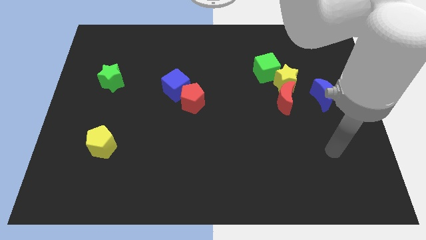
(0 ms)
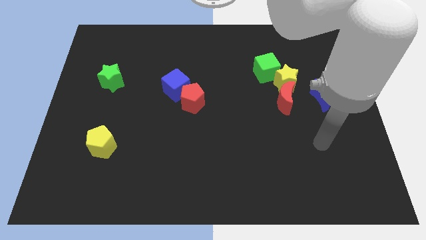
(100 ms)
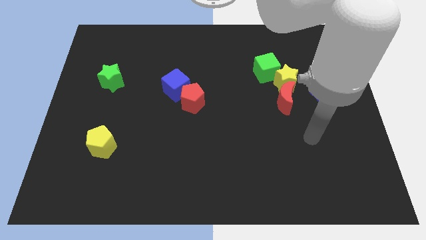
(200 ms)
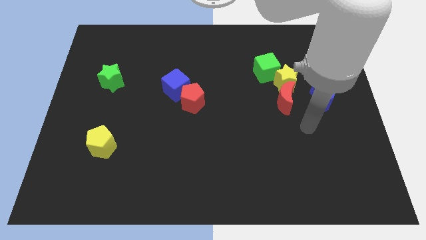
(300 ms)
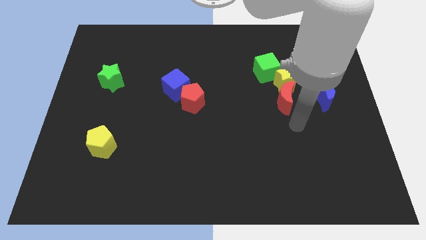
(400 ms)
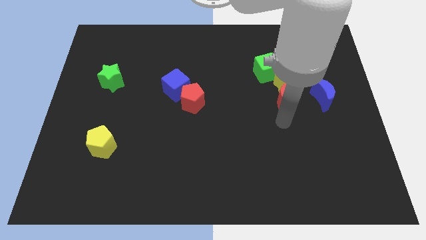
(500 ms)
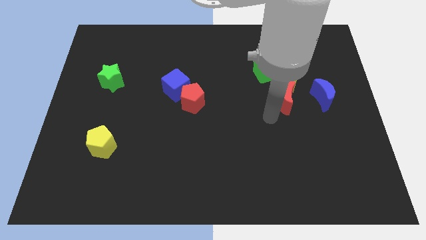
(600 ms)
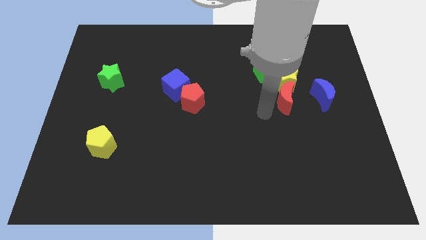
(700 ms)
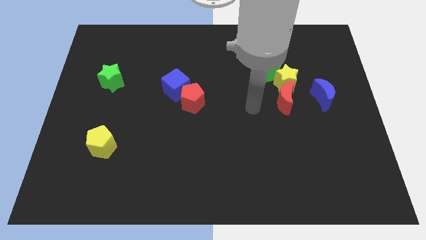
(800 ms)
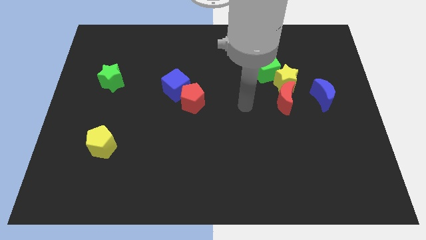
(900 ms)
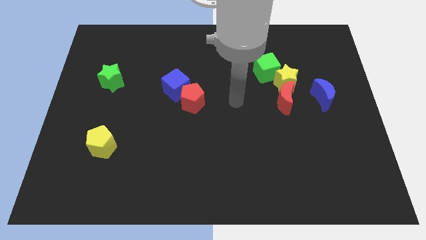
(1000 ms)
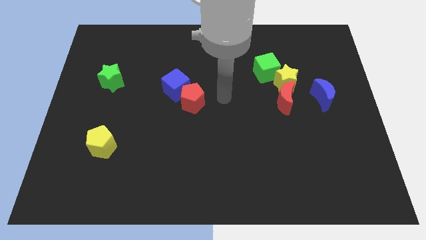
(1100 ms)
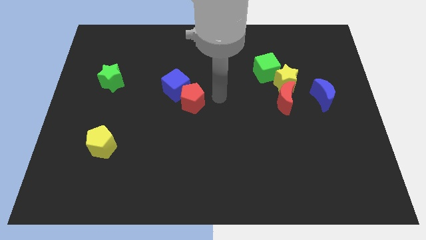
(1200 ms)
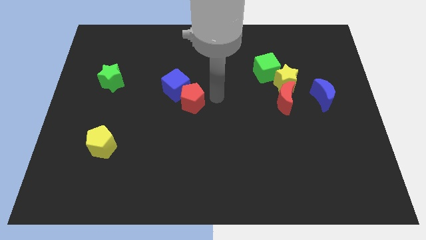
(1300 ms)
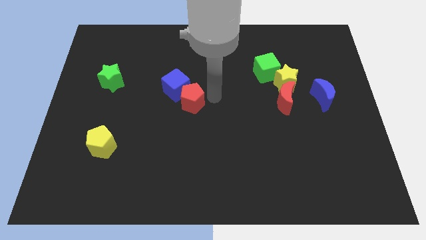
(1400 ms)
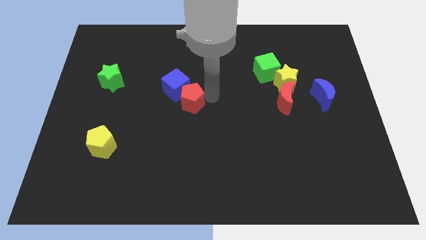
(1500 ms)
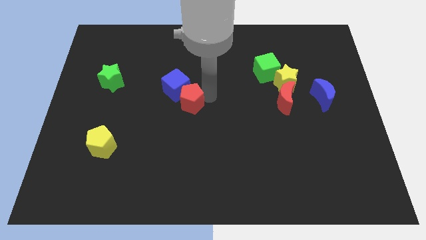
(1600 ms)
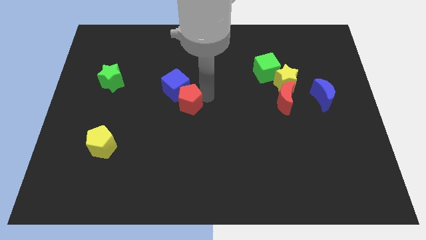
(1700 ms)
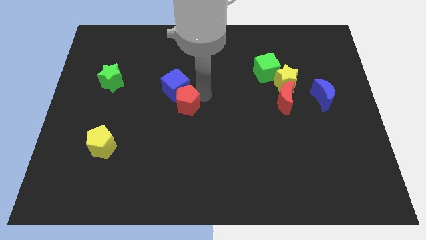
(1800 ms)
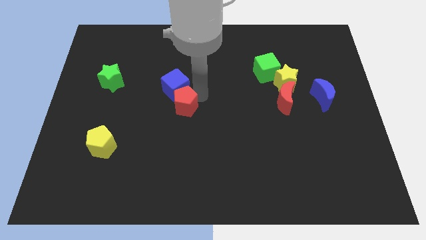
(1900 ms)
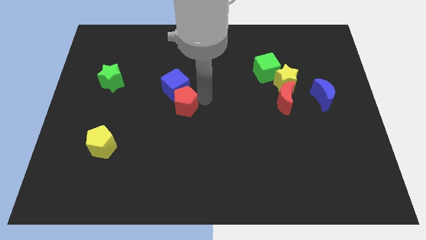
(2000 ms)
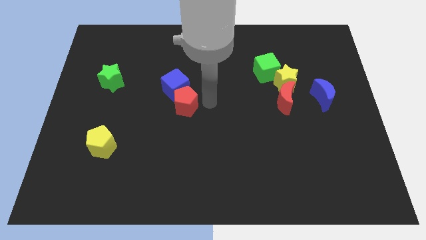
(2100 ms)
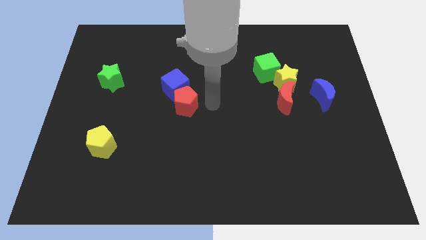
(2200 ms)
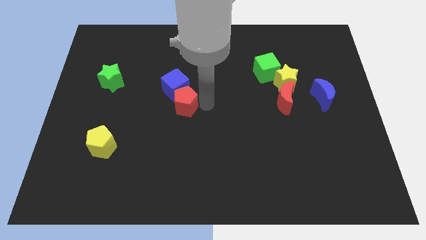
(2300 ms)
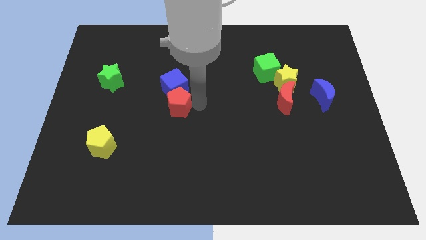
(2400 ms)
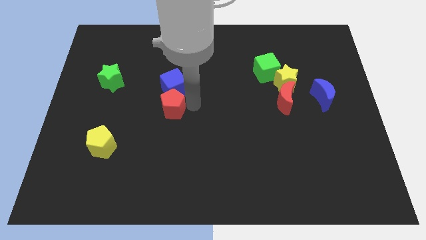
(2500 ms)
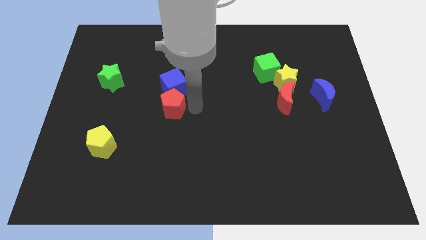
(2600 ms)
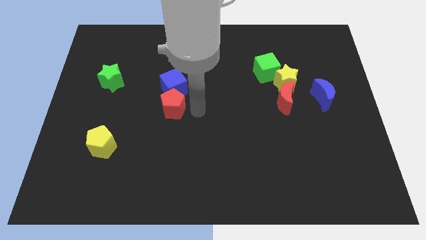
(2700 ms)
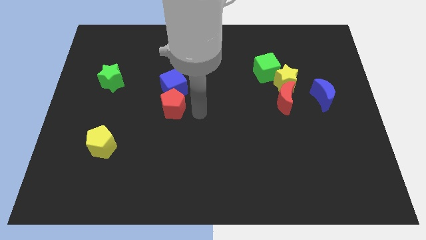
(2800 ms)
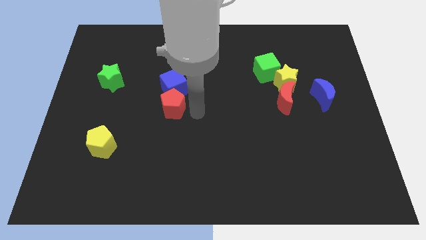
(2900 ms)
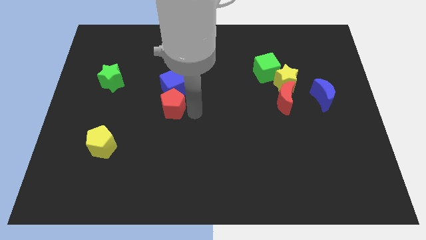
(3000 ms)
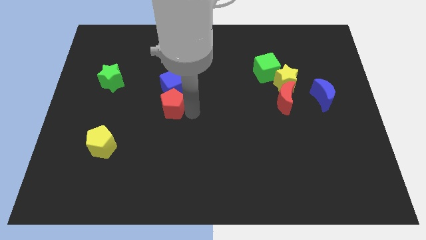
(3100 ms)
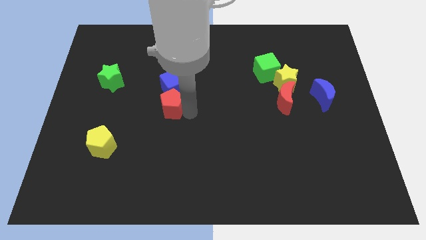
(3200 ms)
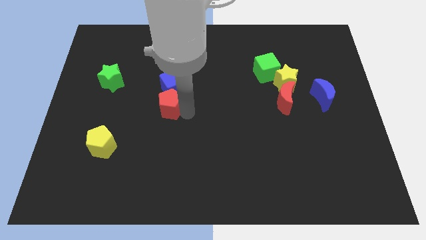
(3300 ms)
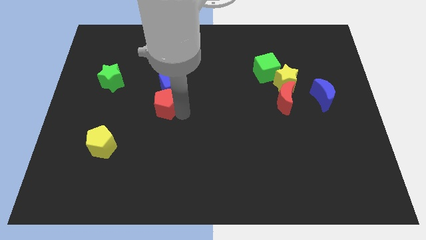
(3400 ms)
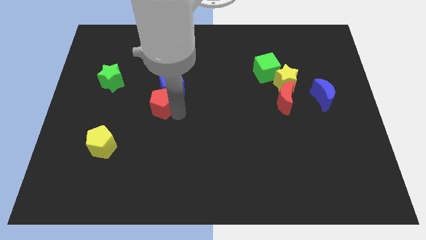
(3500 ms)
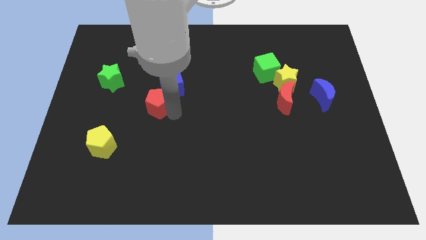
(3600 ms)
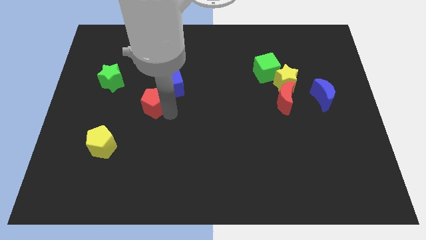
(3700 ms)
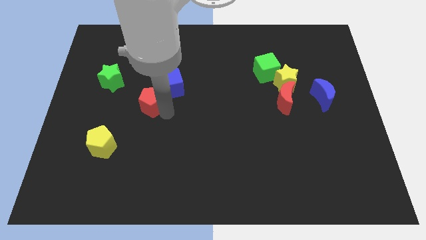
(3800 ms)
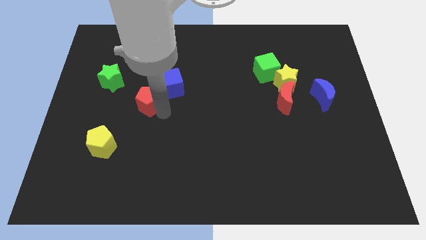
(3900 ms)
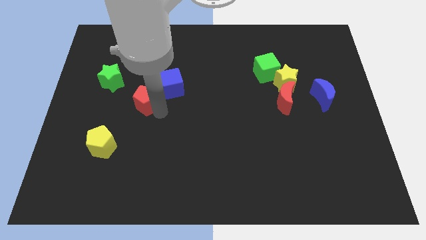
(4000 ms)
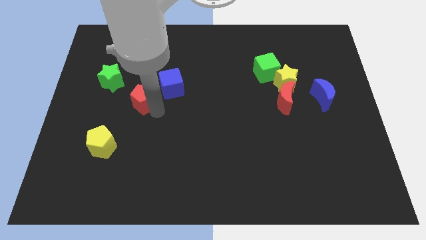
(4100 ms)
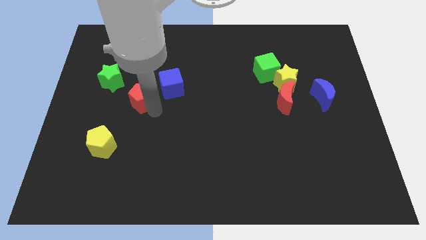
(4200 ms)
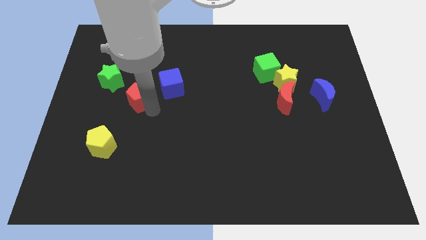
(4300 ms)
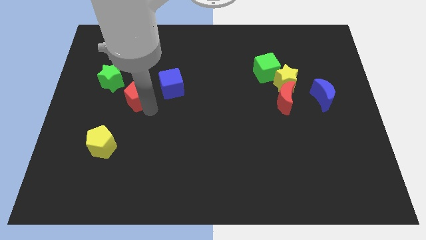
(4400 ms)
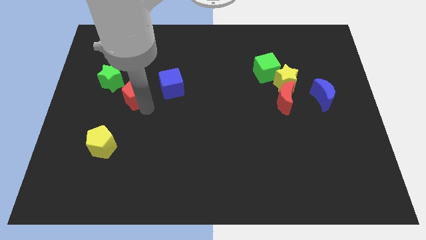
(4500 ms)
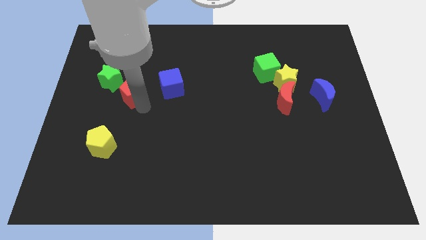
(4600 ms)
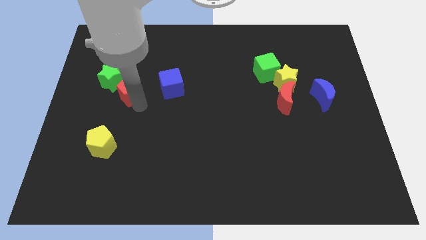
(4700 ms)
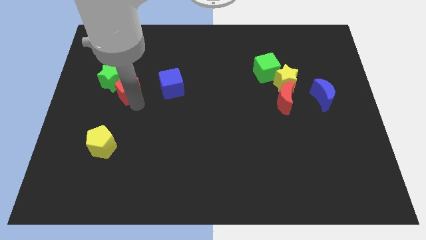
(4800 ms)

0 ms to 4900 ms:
slide the red pentagon to the green star

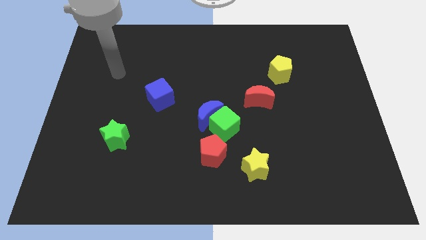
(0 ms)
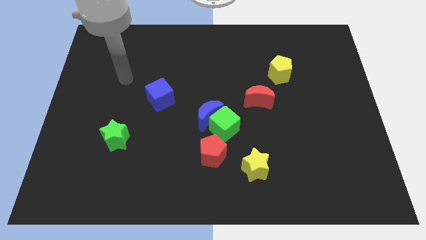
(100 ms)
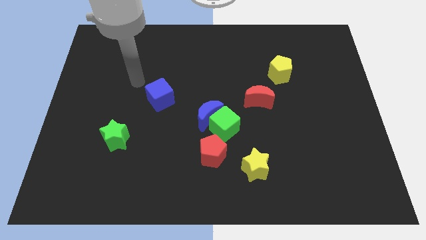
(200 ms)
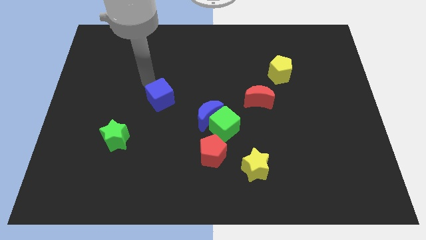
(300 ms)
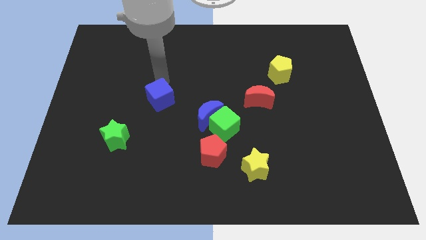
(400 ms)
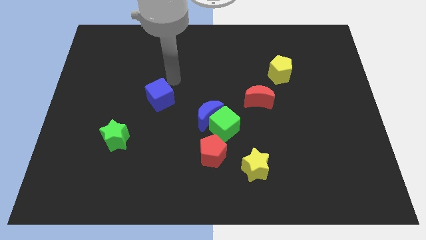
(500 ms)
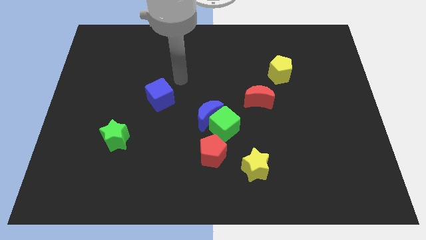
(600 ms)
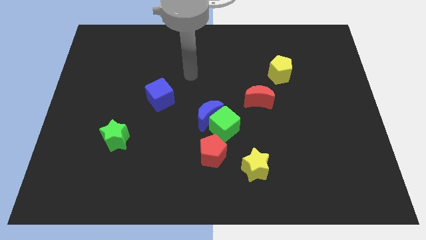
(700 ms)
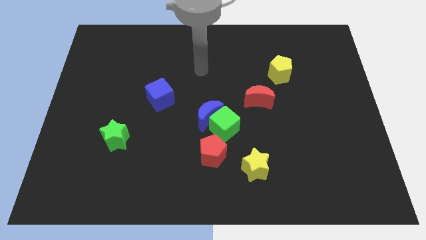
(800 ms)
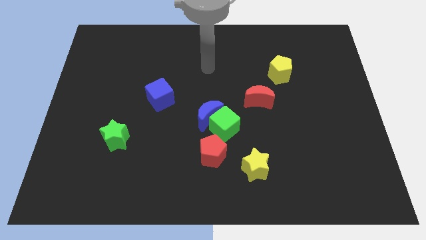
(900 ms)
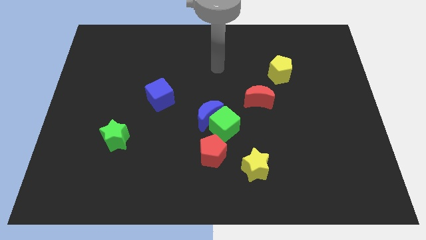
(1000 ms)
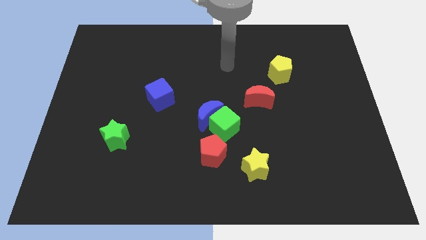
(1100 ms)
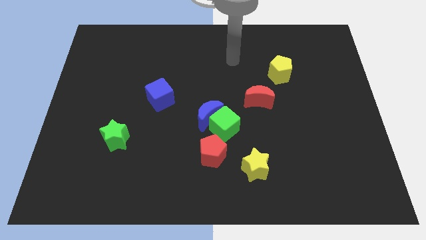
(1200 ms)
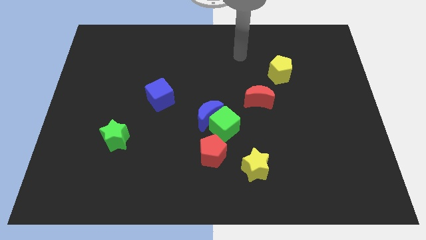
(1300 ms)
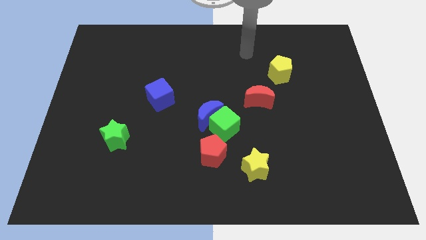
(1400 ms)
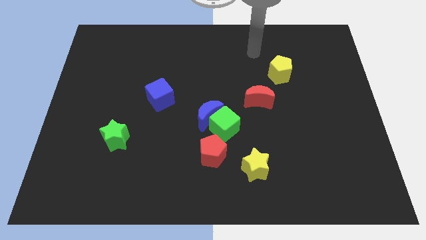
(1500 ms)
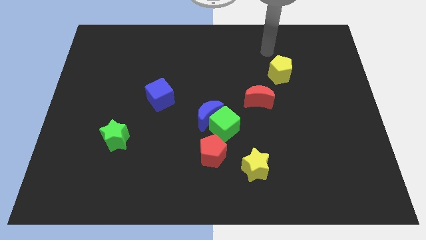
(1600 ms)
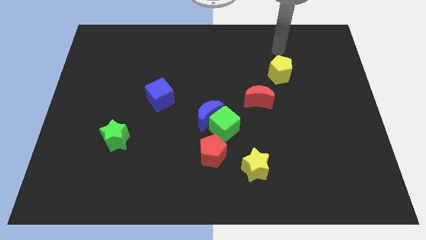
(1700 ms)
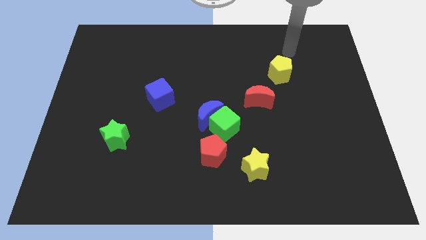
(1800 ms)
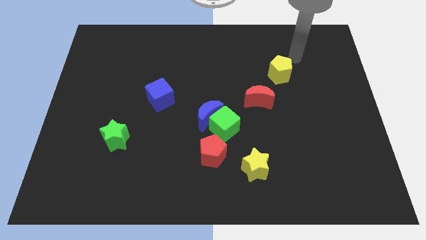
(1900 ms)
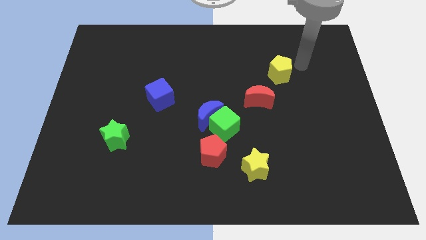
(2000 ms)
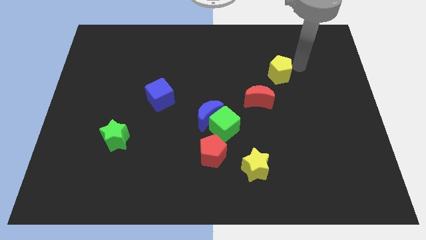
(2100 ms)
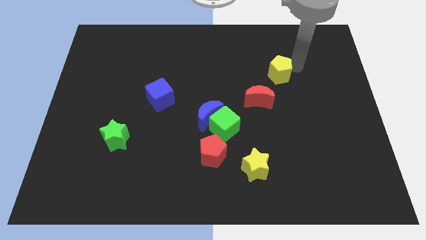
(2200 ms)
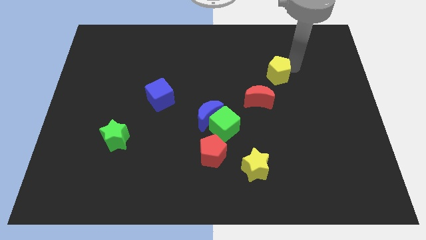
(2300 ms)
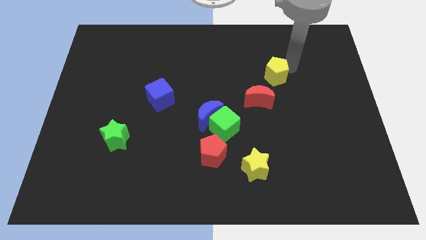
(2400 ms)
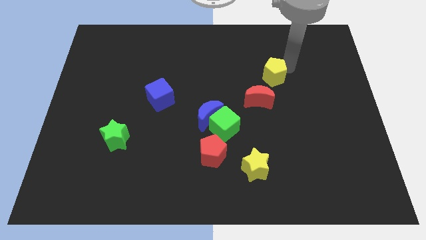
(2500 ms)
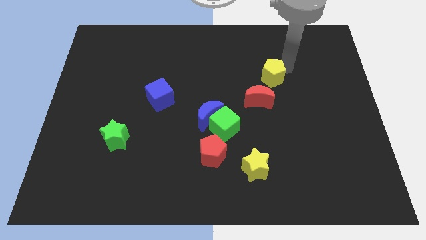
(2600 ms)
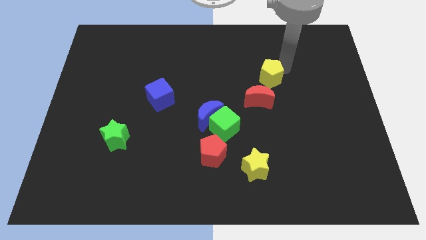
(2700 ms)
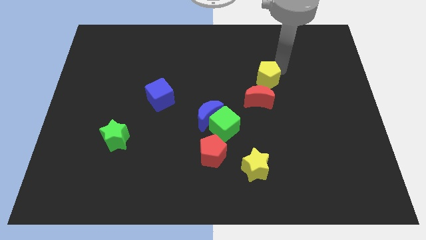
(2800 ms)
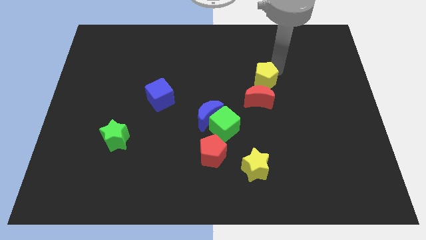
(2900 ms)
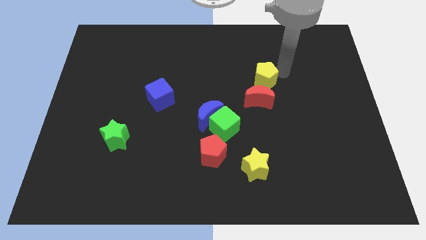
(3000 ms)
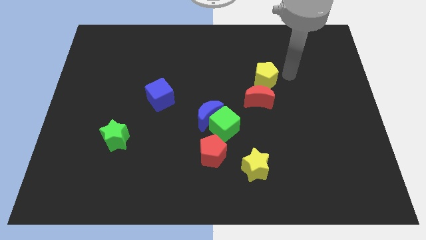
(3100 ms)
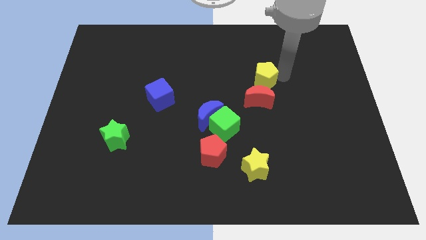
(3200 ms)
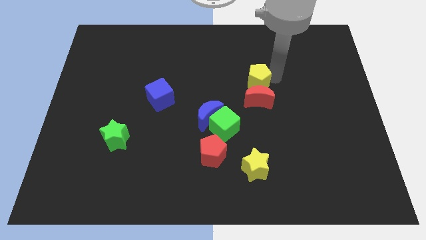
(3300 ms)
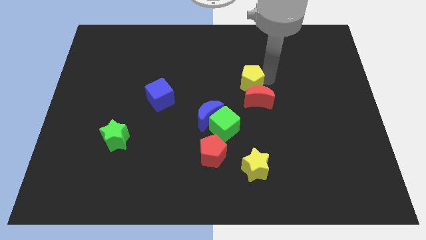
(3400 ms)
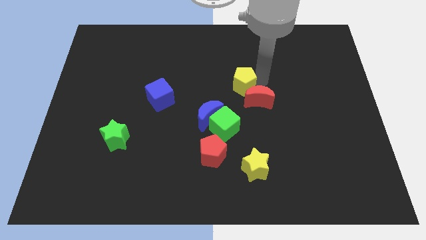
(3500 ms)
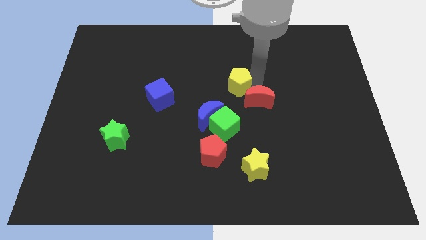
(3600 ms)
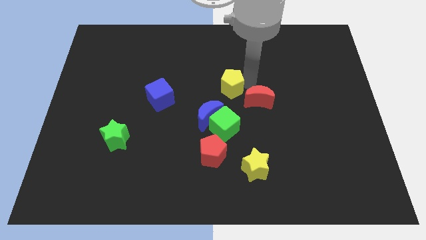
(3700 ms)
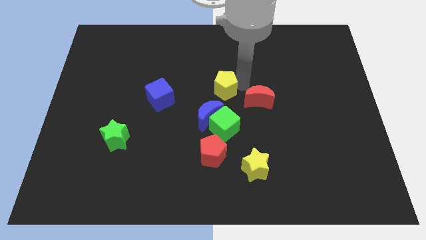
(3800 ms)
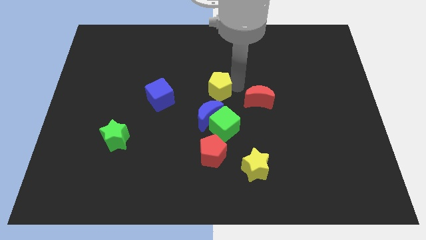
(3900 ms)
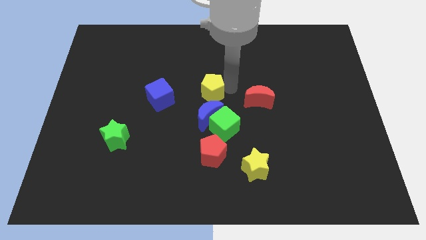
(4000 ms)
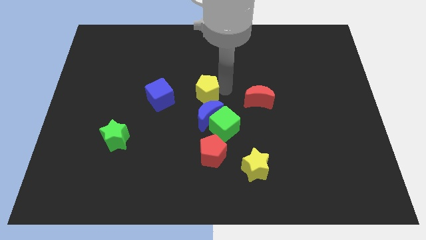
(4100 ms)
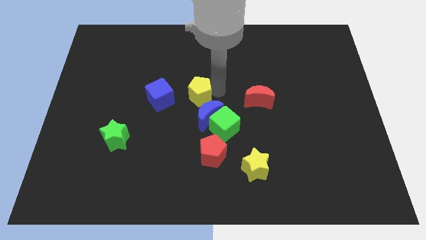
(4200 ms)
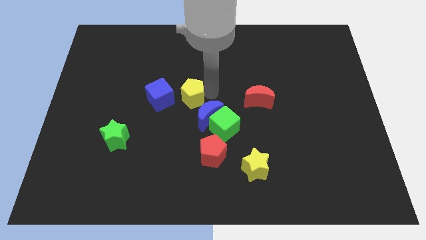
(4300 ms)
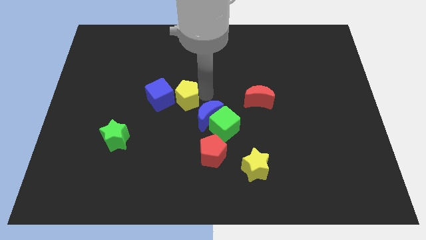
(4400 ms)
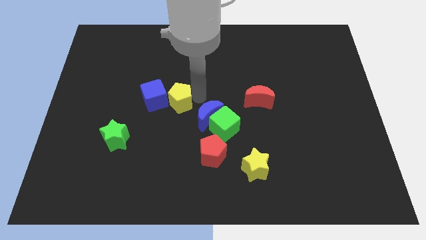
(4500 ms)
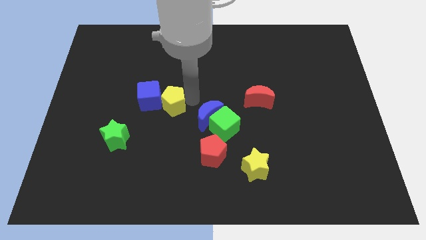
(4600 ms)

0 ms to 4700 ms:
push the yellow pentagon close to the blue cube
